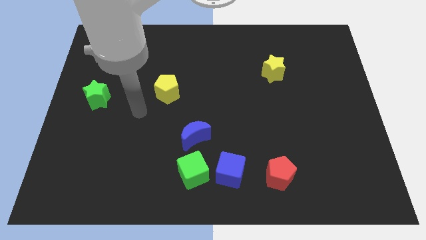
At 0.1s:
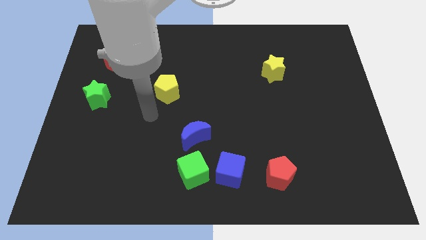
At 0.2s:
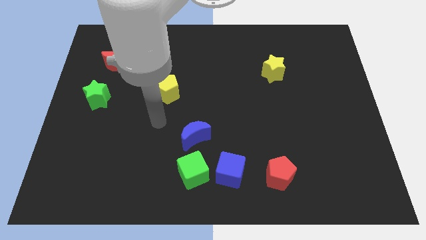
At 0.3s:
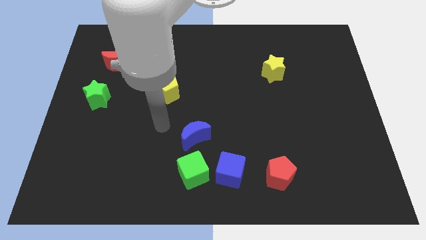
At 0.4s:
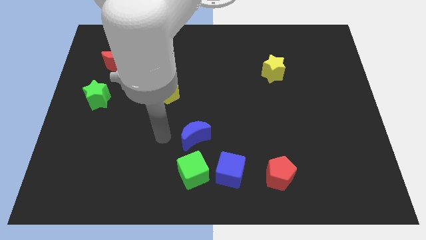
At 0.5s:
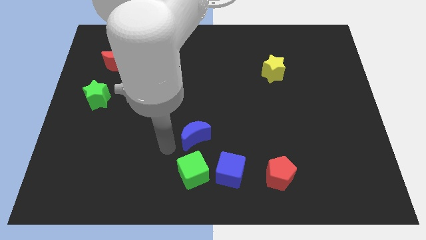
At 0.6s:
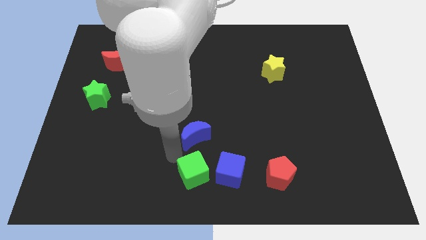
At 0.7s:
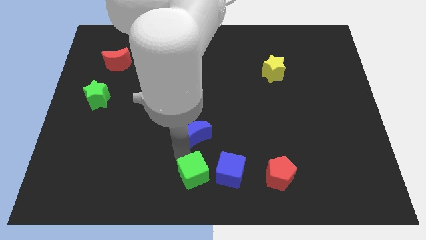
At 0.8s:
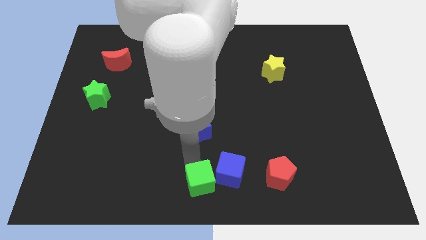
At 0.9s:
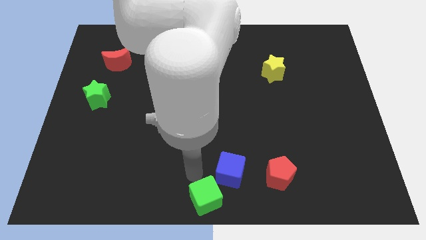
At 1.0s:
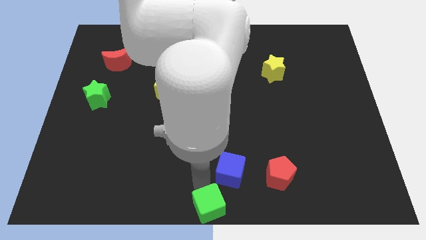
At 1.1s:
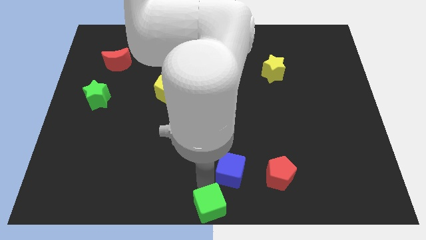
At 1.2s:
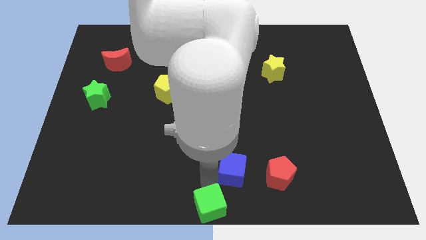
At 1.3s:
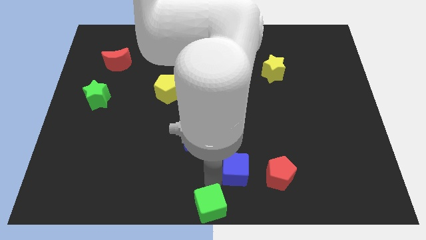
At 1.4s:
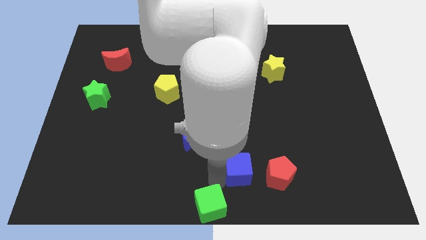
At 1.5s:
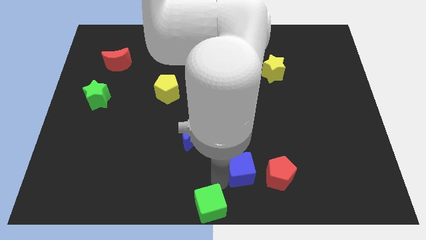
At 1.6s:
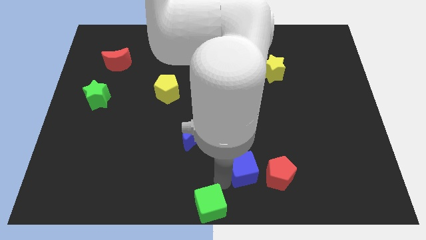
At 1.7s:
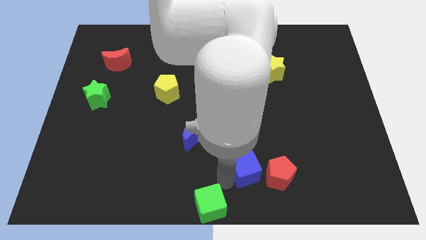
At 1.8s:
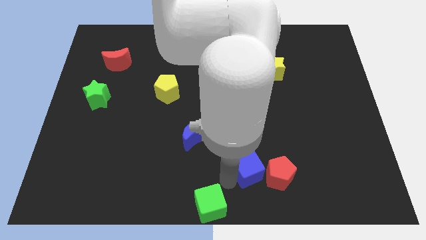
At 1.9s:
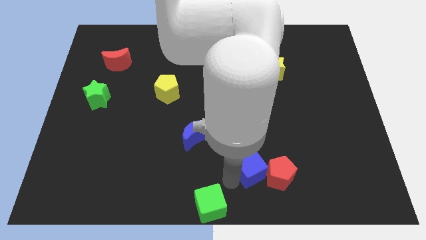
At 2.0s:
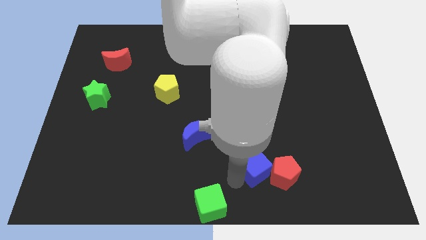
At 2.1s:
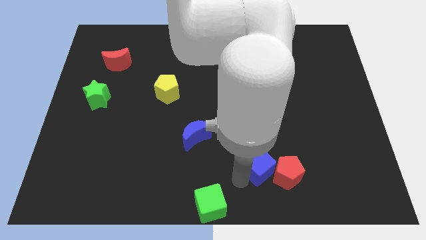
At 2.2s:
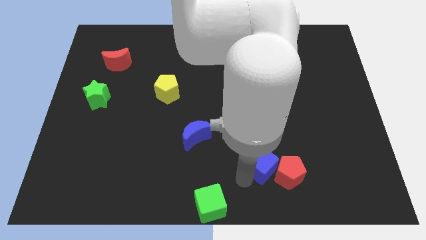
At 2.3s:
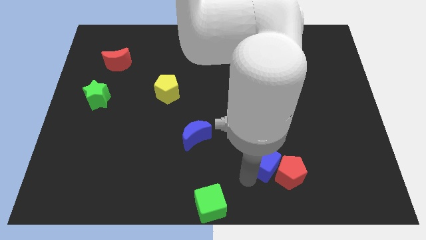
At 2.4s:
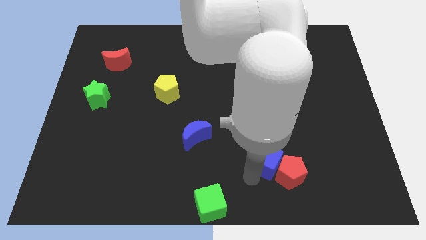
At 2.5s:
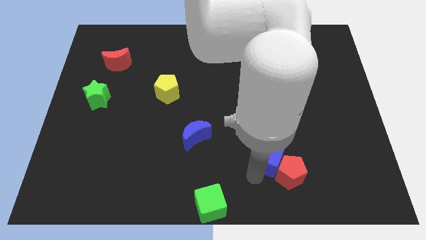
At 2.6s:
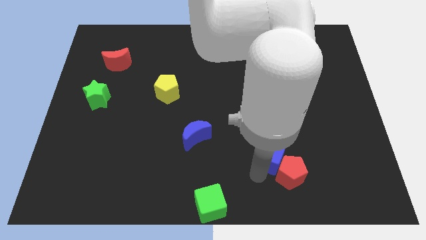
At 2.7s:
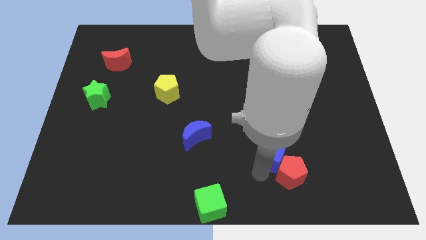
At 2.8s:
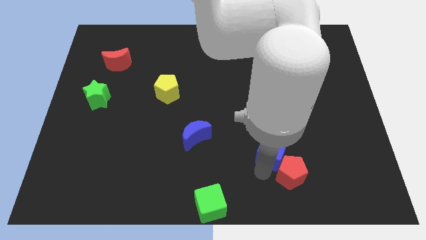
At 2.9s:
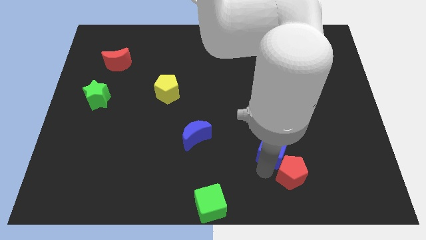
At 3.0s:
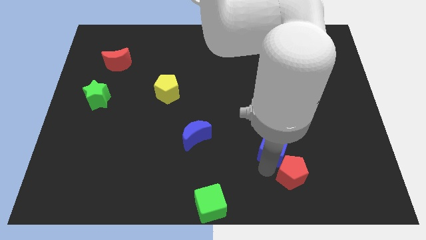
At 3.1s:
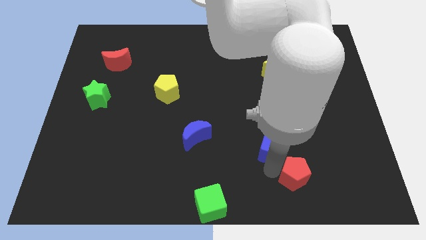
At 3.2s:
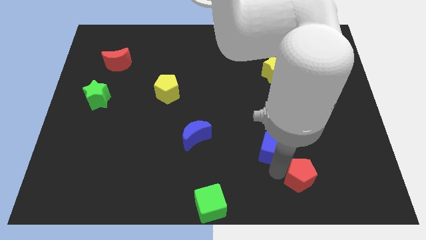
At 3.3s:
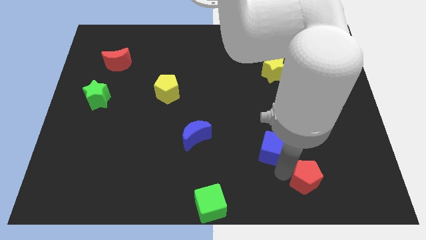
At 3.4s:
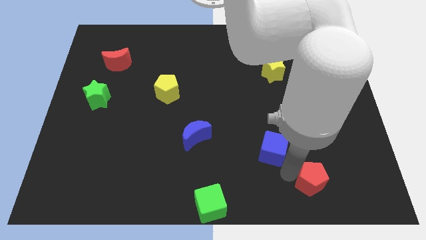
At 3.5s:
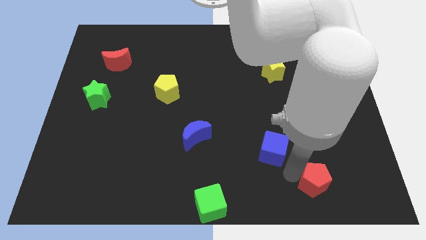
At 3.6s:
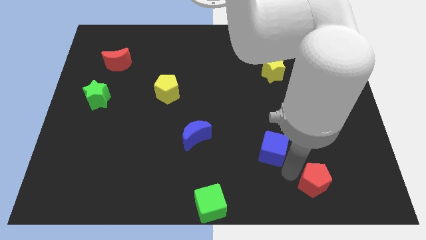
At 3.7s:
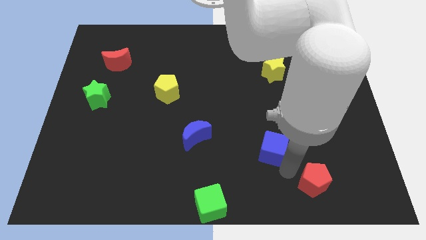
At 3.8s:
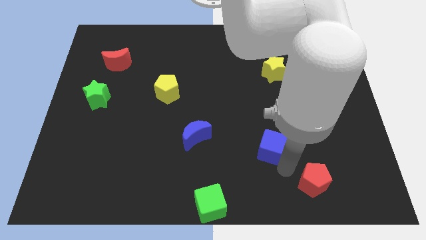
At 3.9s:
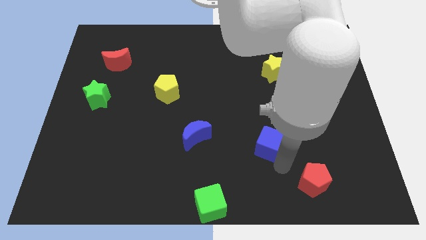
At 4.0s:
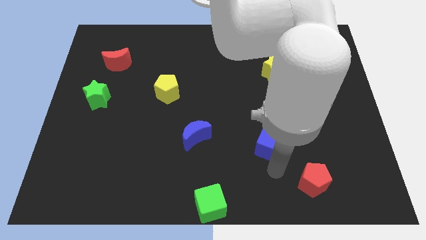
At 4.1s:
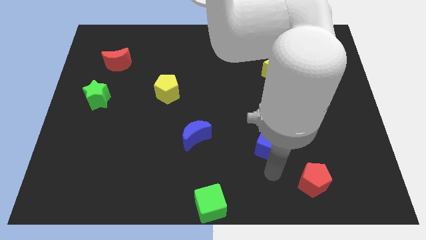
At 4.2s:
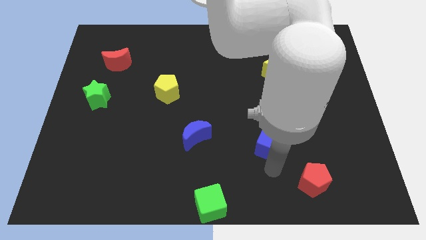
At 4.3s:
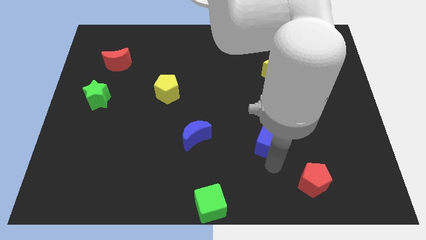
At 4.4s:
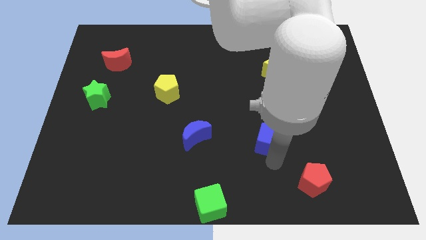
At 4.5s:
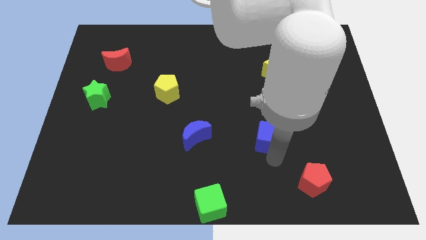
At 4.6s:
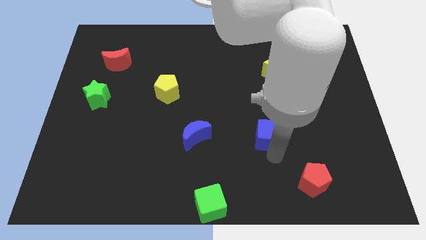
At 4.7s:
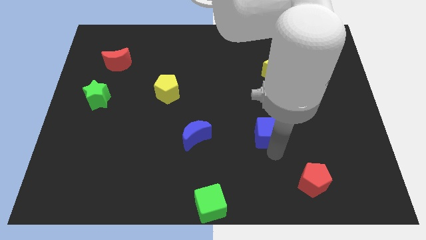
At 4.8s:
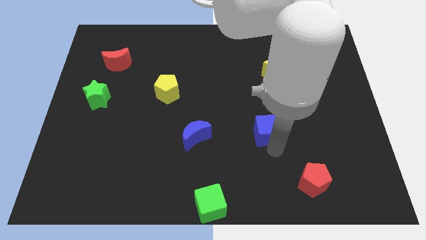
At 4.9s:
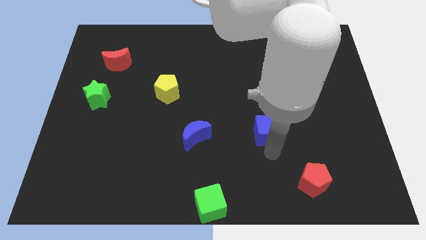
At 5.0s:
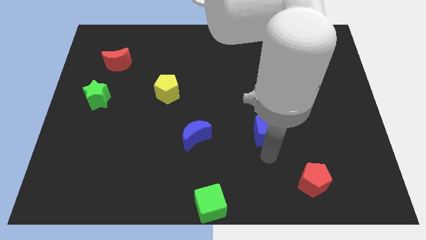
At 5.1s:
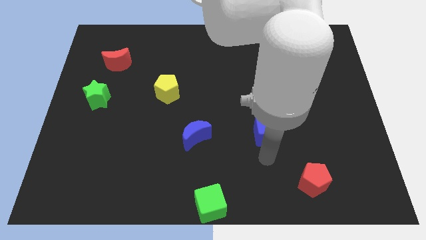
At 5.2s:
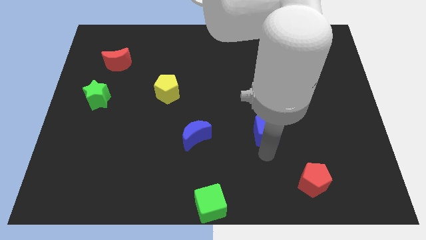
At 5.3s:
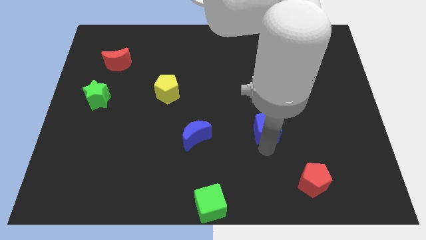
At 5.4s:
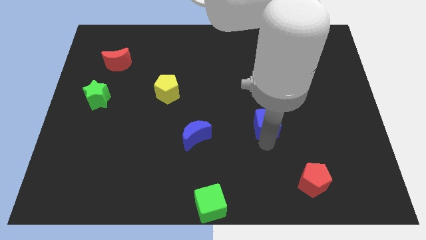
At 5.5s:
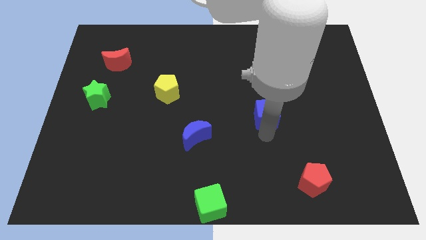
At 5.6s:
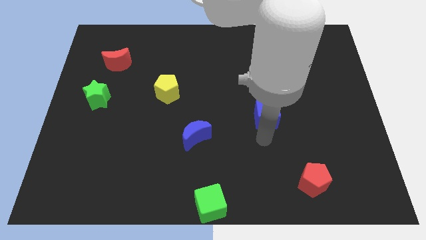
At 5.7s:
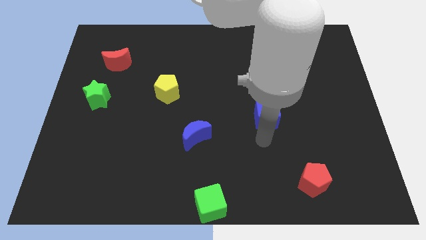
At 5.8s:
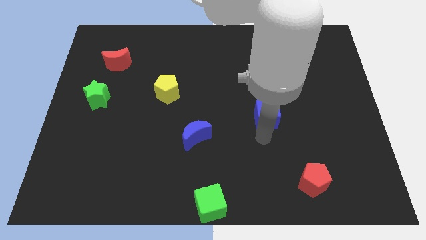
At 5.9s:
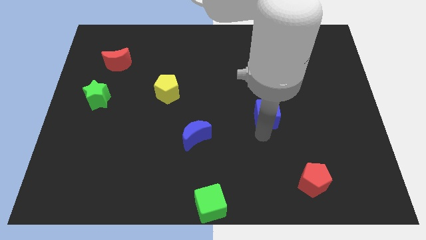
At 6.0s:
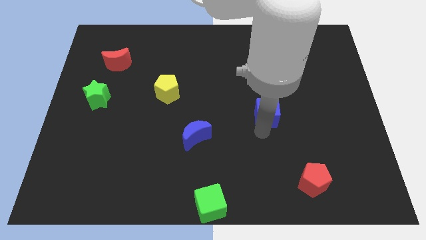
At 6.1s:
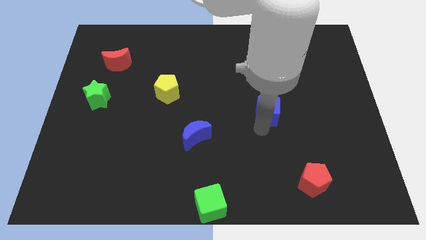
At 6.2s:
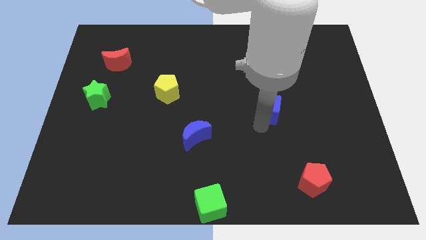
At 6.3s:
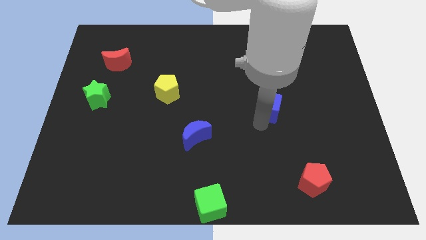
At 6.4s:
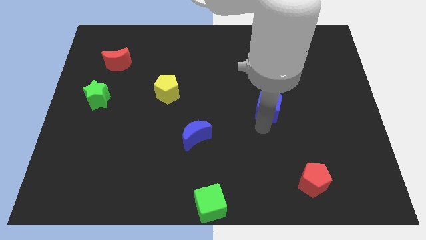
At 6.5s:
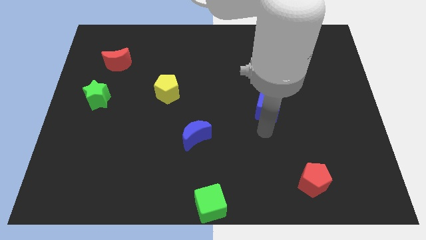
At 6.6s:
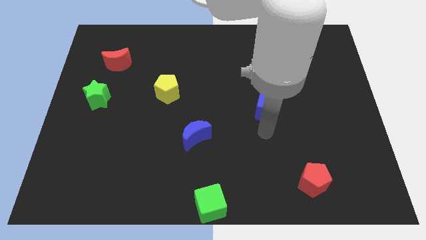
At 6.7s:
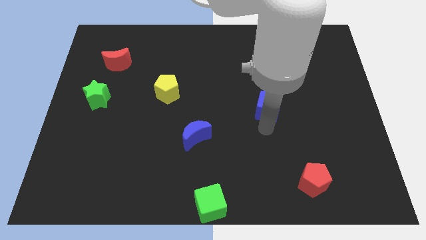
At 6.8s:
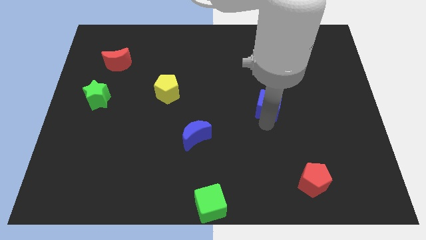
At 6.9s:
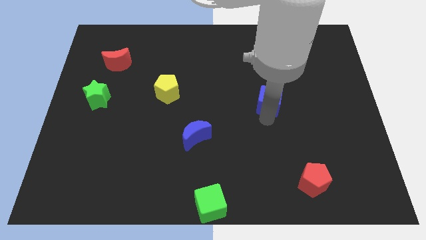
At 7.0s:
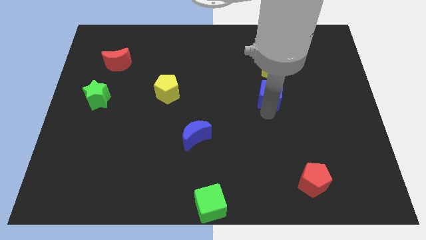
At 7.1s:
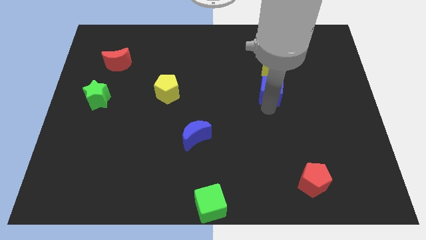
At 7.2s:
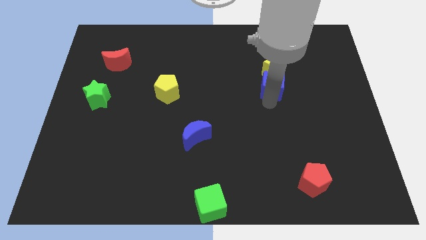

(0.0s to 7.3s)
push the blue cube to the yellow star
